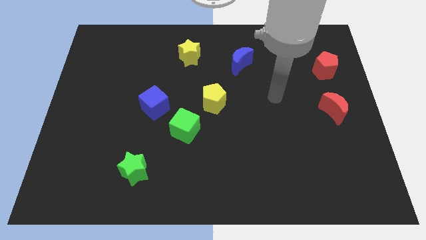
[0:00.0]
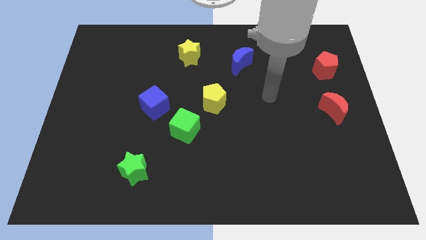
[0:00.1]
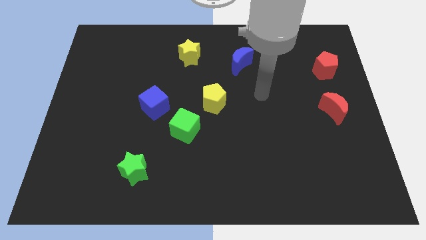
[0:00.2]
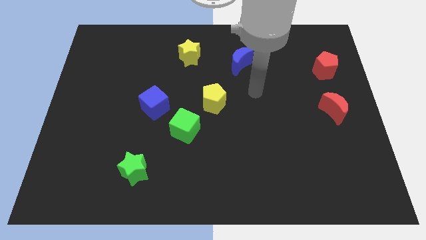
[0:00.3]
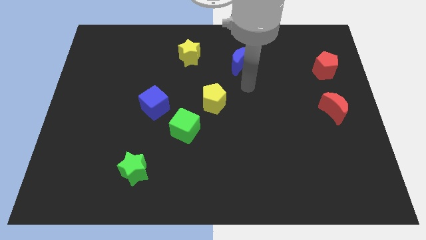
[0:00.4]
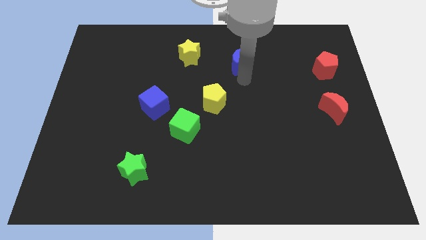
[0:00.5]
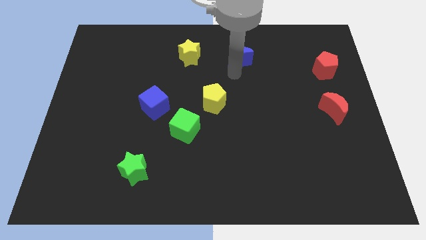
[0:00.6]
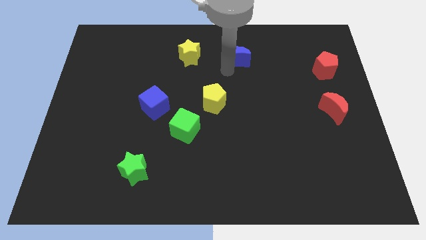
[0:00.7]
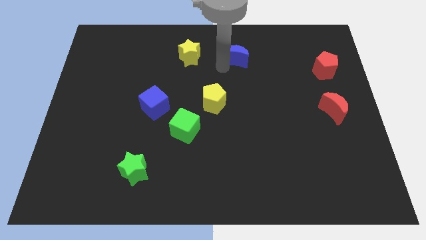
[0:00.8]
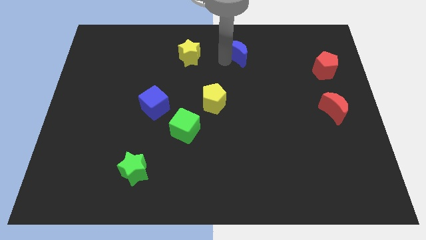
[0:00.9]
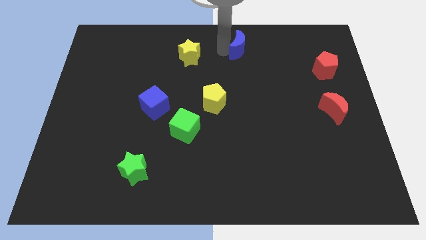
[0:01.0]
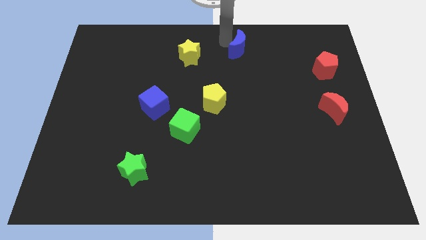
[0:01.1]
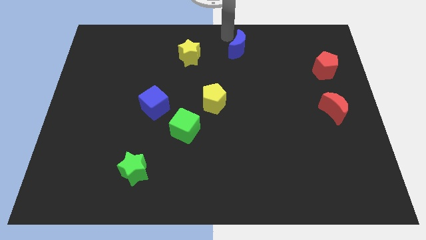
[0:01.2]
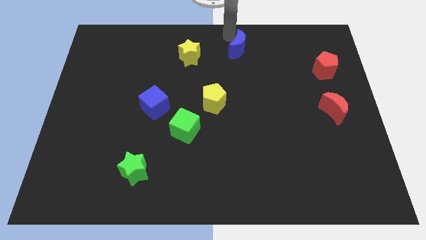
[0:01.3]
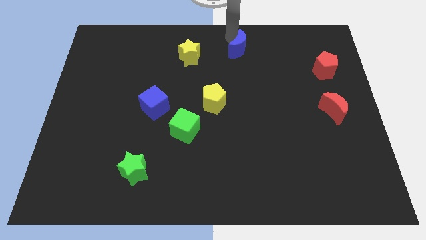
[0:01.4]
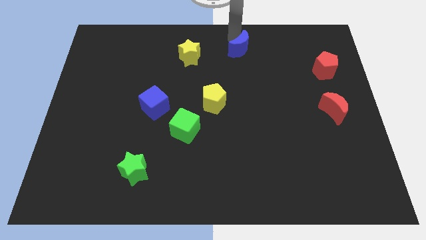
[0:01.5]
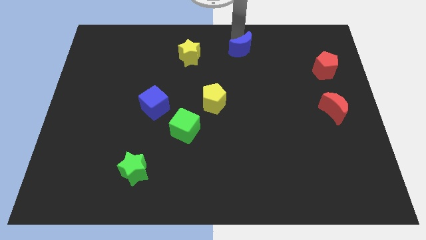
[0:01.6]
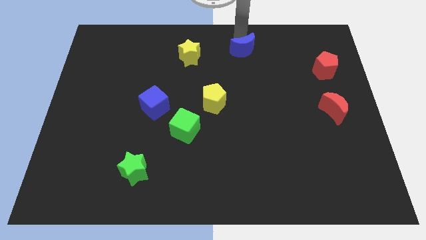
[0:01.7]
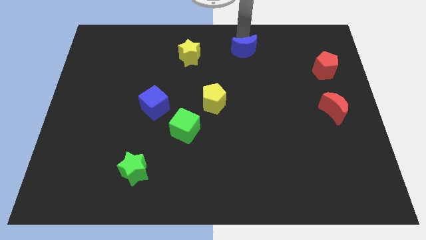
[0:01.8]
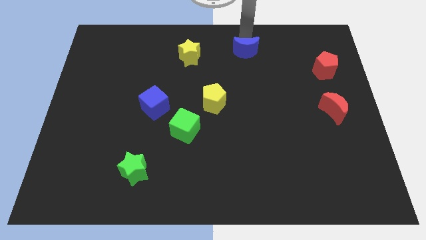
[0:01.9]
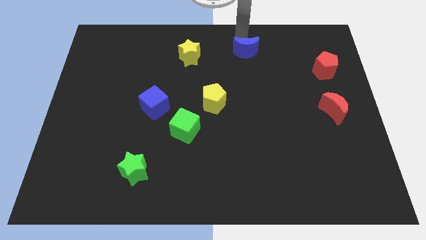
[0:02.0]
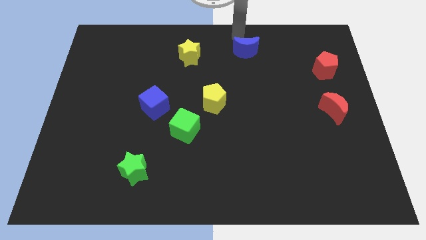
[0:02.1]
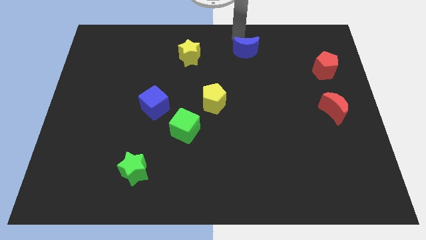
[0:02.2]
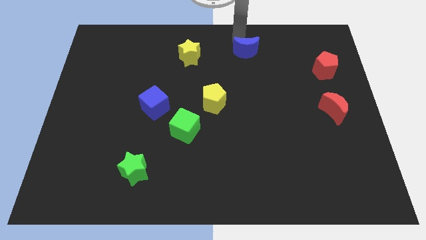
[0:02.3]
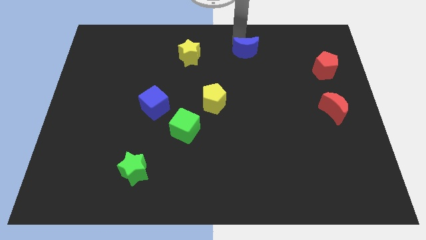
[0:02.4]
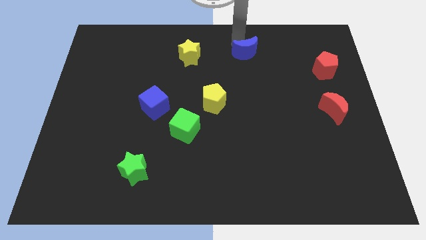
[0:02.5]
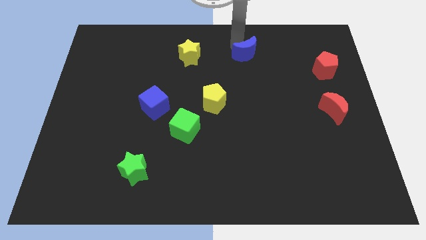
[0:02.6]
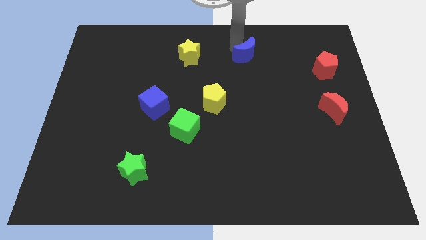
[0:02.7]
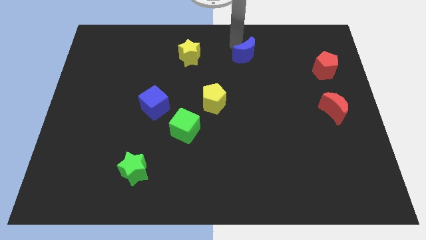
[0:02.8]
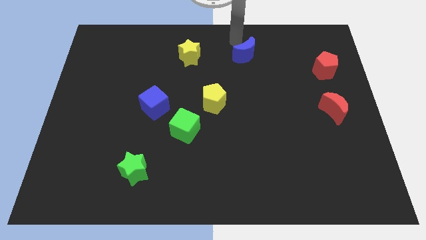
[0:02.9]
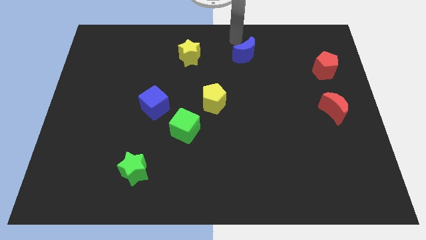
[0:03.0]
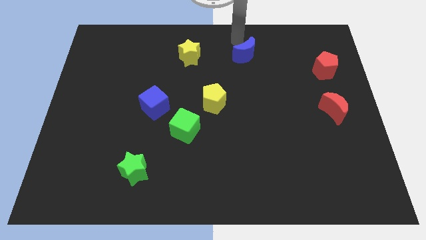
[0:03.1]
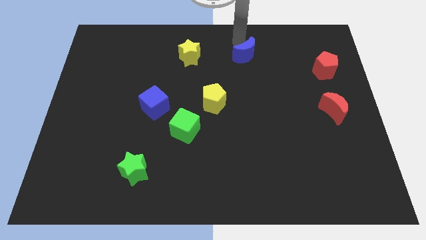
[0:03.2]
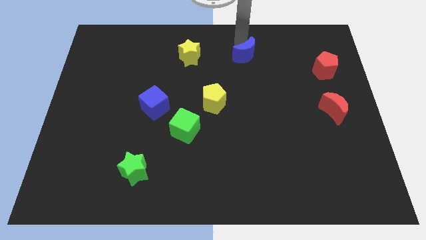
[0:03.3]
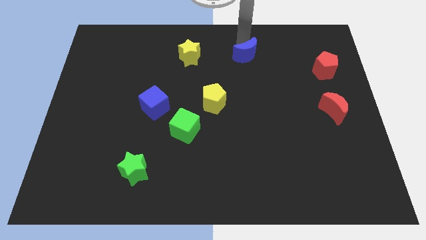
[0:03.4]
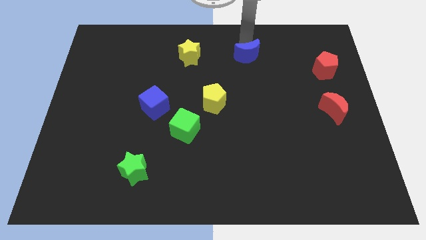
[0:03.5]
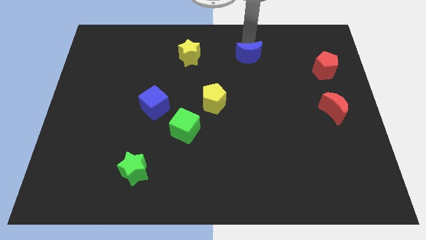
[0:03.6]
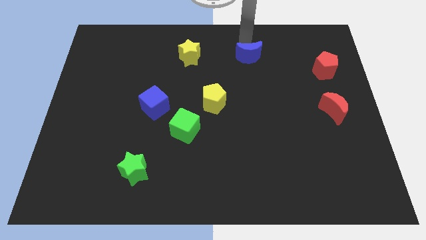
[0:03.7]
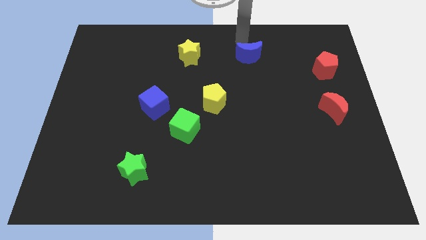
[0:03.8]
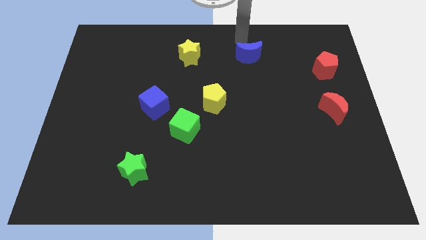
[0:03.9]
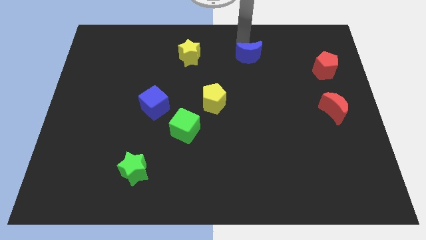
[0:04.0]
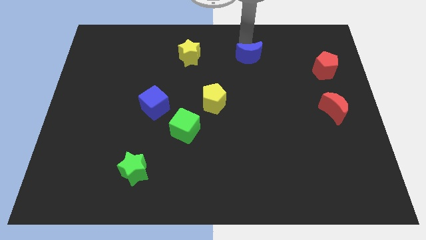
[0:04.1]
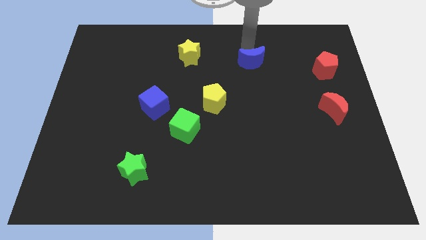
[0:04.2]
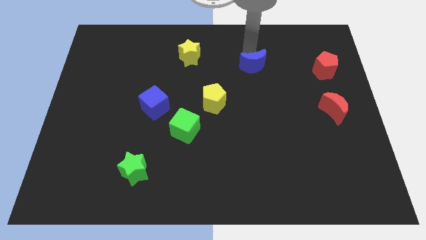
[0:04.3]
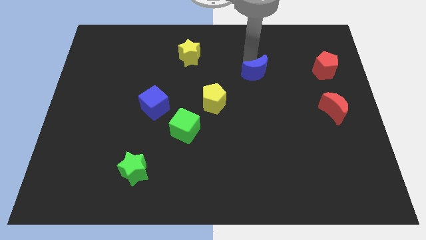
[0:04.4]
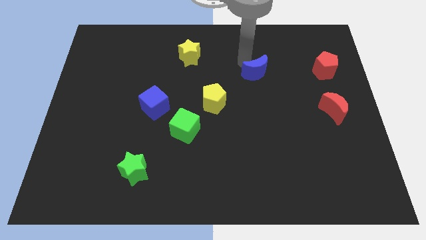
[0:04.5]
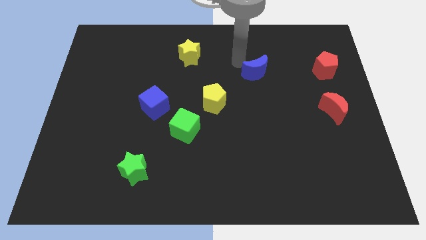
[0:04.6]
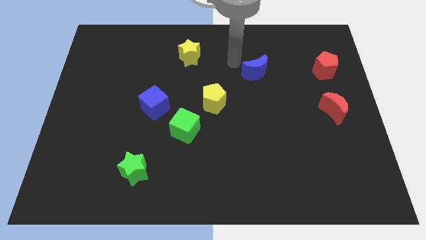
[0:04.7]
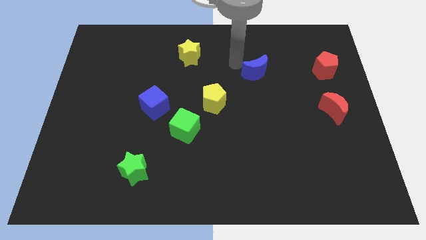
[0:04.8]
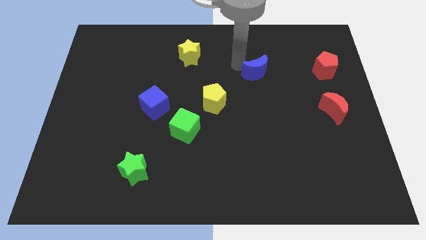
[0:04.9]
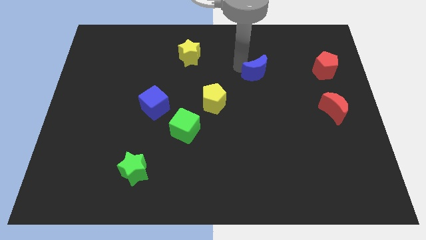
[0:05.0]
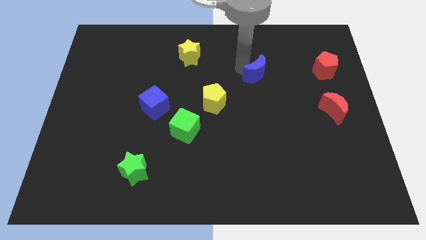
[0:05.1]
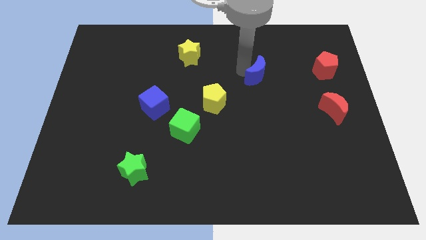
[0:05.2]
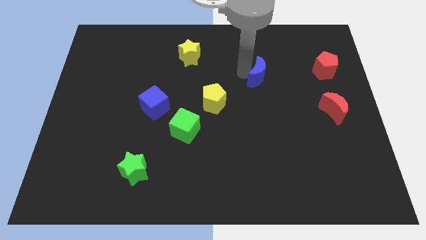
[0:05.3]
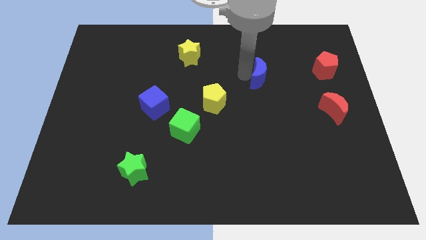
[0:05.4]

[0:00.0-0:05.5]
slide the blue moon slightly diagonally down and to the right

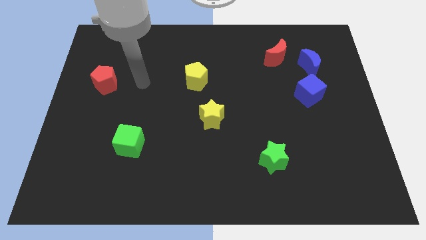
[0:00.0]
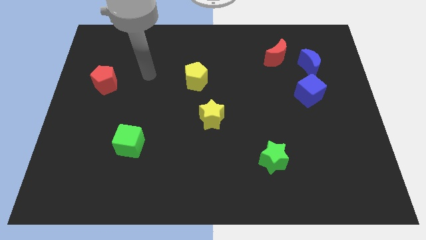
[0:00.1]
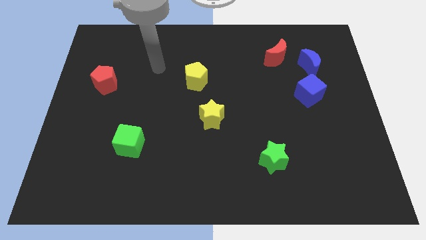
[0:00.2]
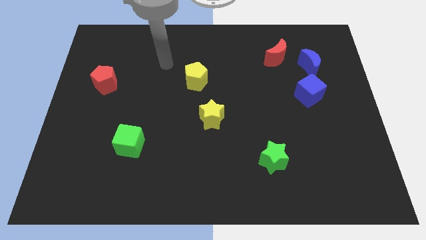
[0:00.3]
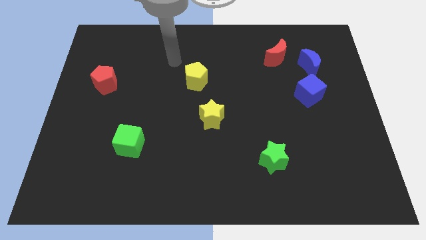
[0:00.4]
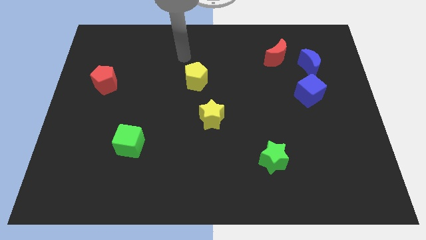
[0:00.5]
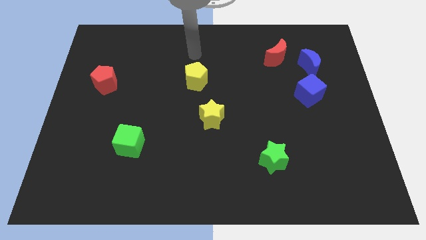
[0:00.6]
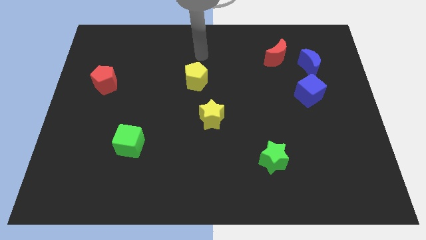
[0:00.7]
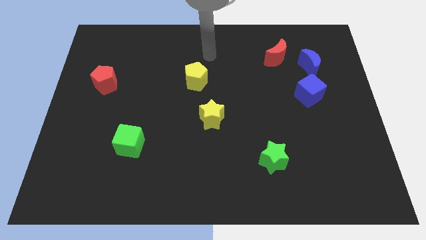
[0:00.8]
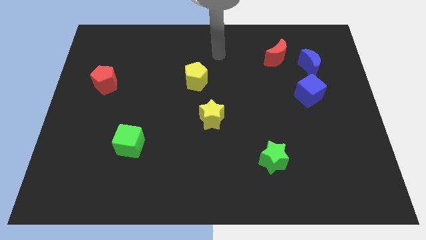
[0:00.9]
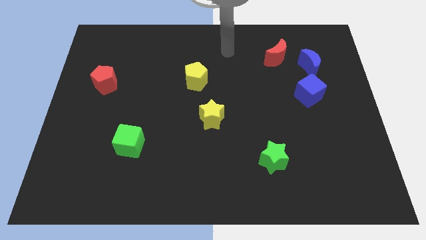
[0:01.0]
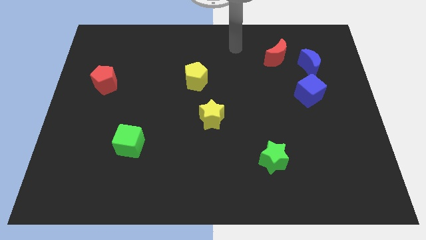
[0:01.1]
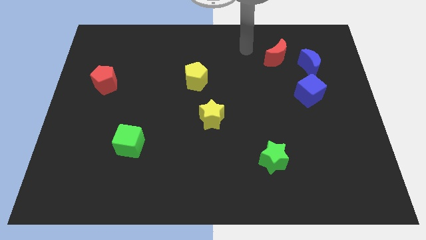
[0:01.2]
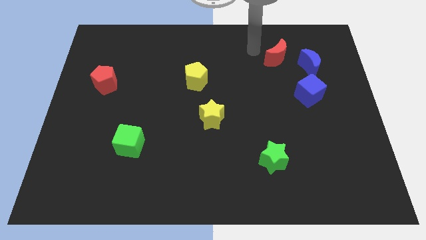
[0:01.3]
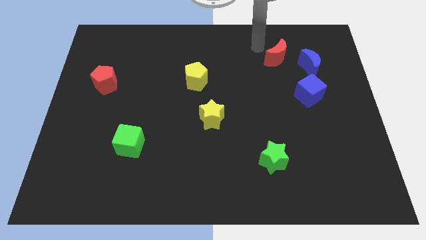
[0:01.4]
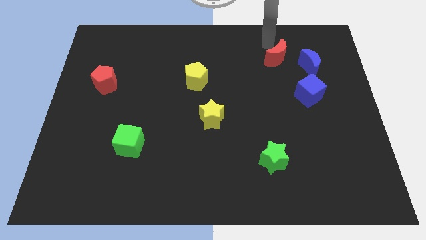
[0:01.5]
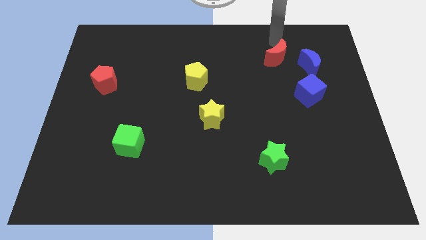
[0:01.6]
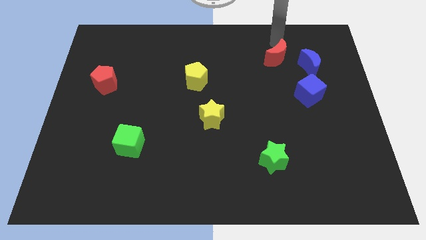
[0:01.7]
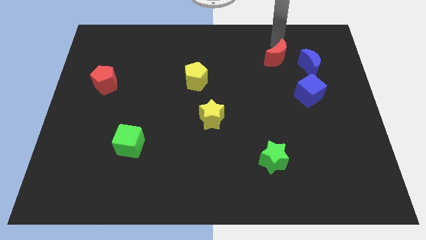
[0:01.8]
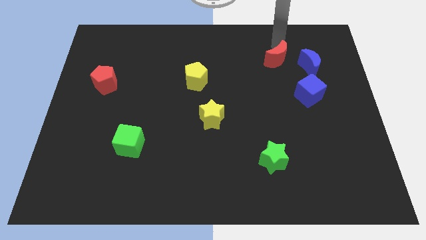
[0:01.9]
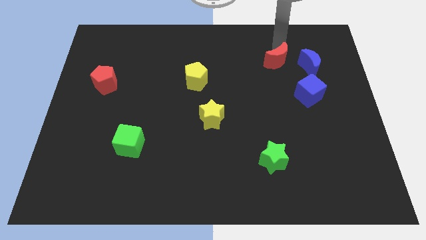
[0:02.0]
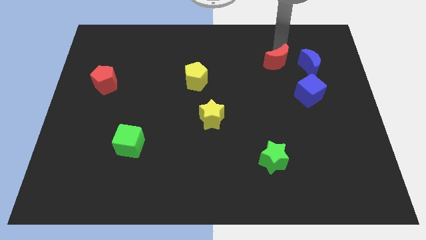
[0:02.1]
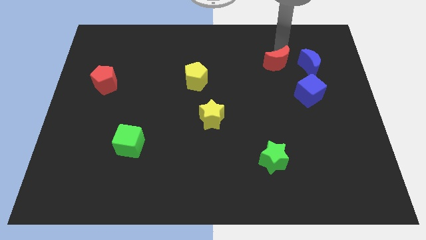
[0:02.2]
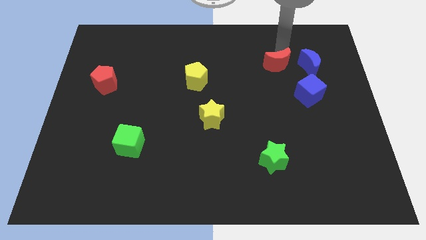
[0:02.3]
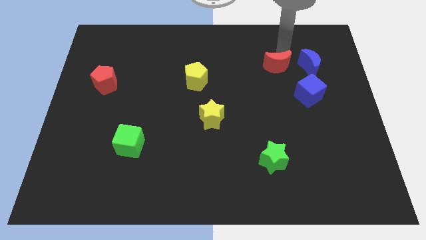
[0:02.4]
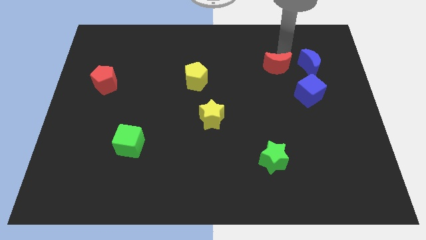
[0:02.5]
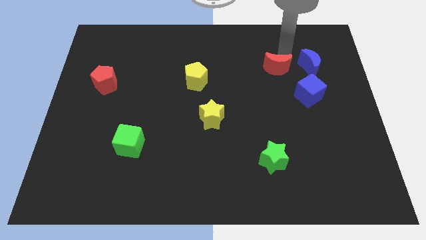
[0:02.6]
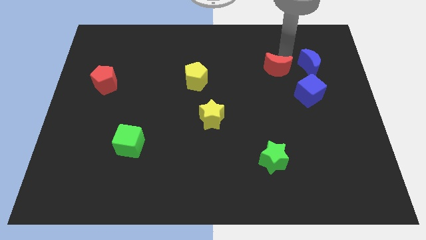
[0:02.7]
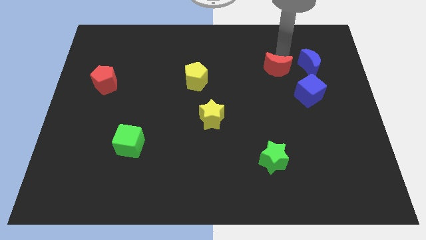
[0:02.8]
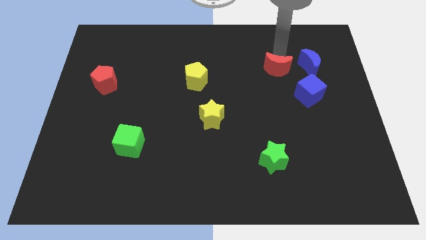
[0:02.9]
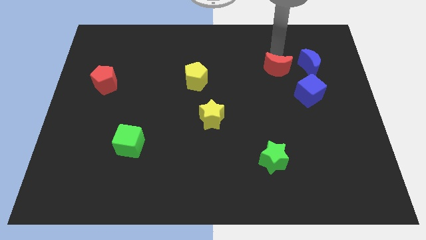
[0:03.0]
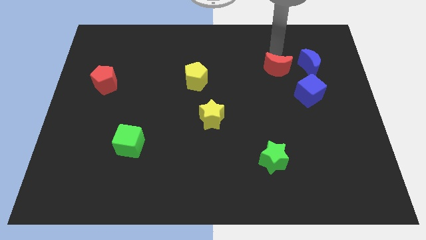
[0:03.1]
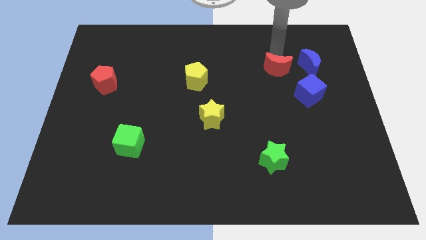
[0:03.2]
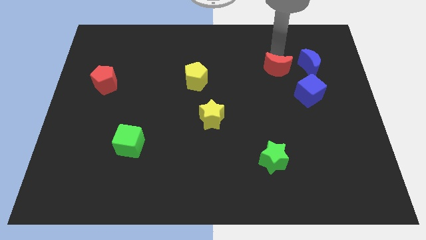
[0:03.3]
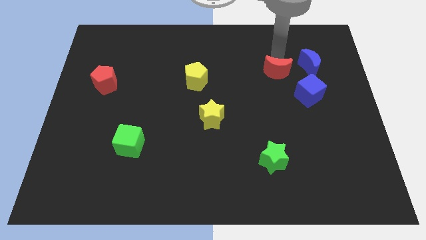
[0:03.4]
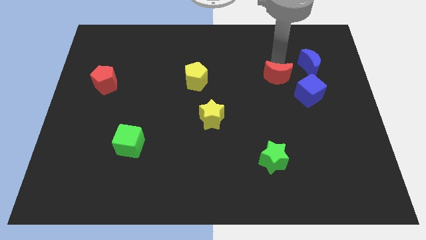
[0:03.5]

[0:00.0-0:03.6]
move the red moon a little downwards
